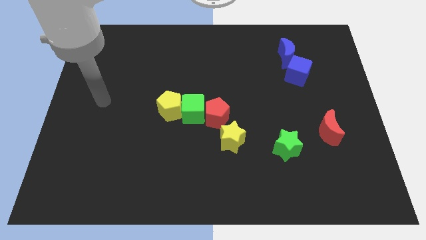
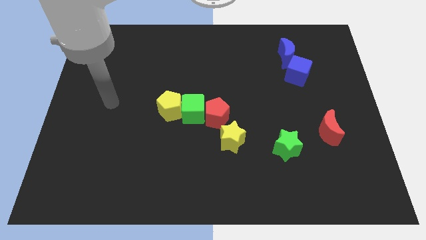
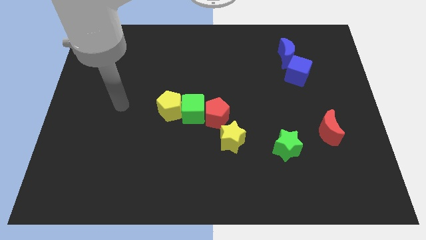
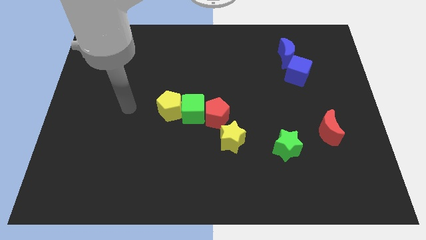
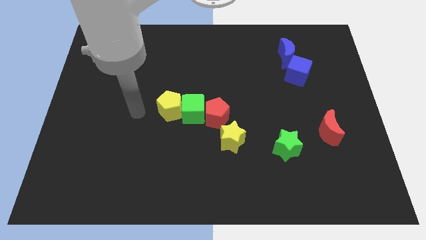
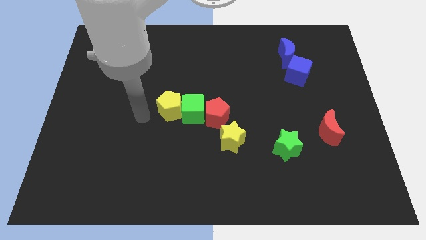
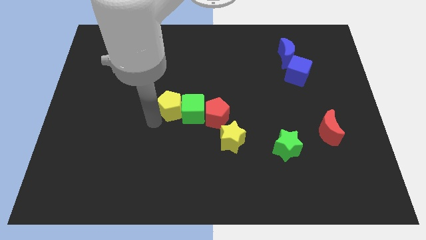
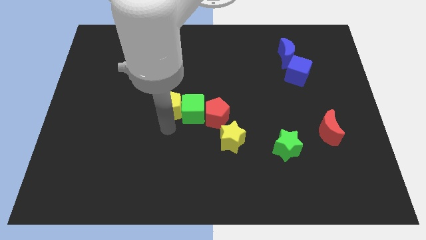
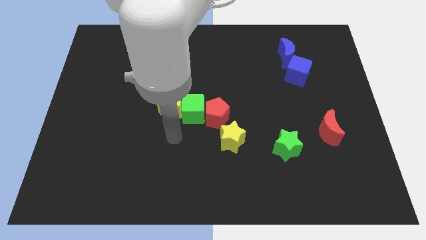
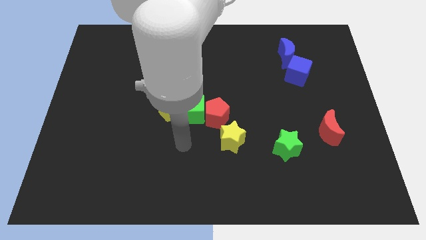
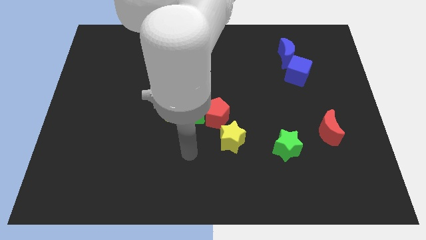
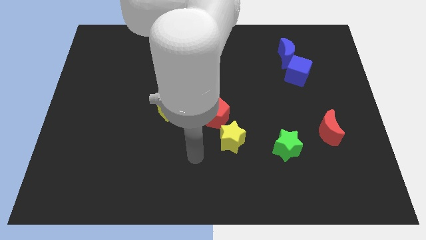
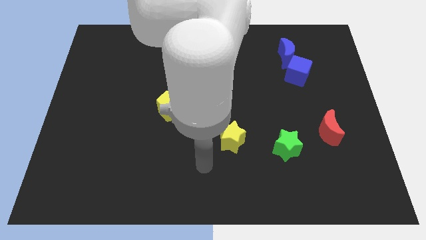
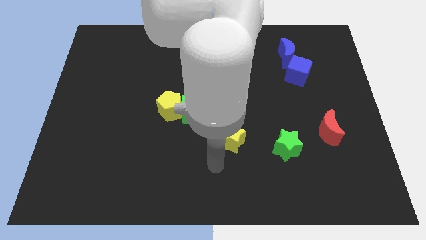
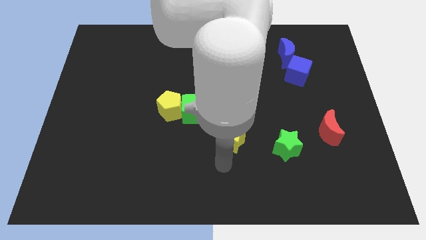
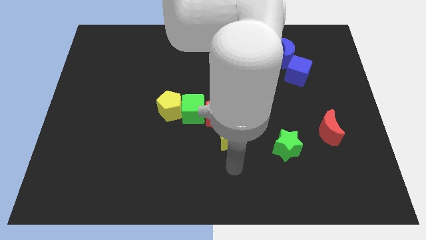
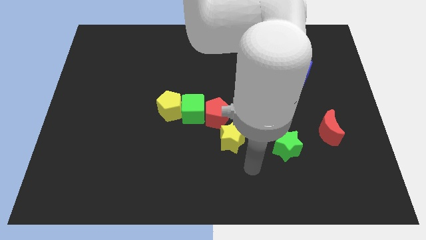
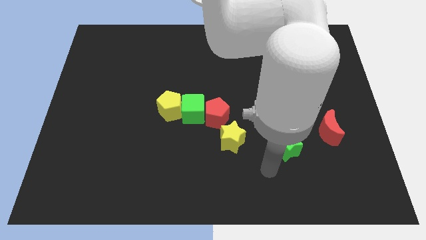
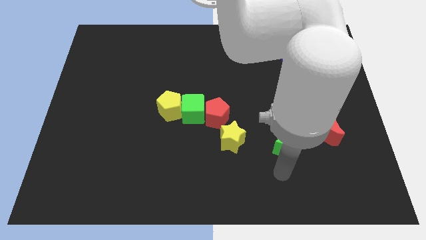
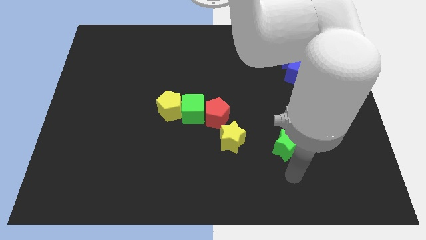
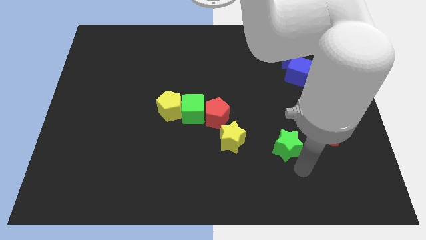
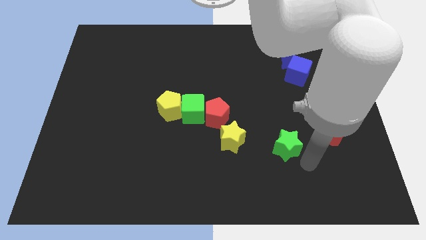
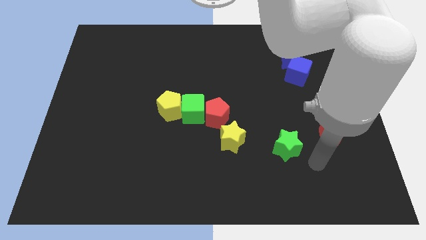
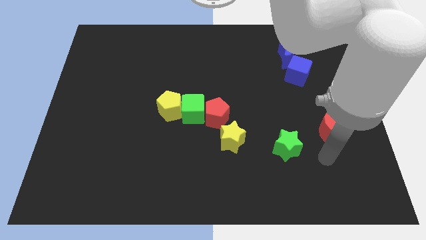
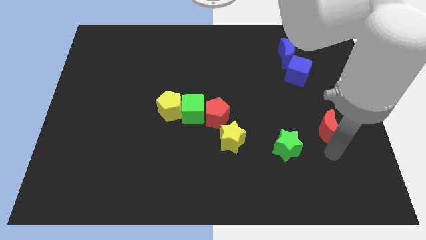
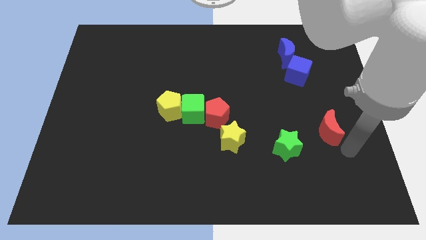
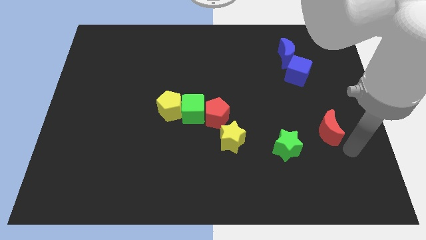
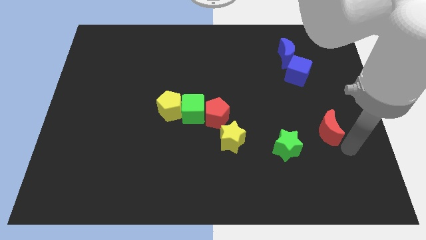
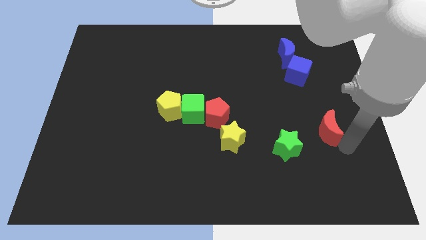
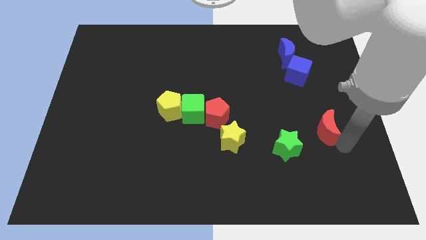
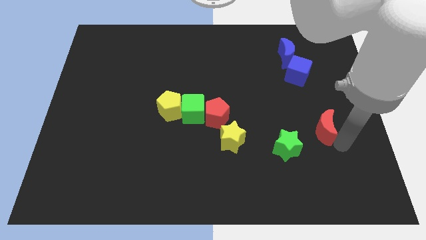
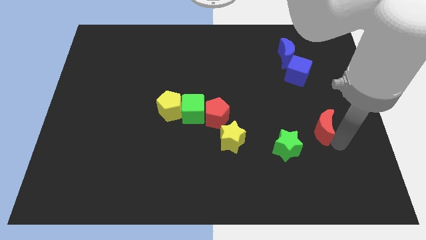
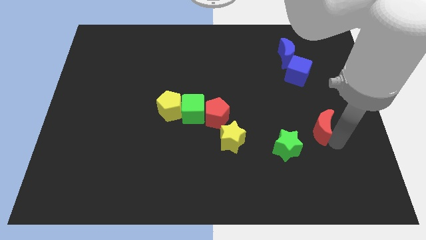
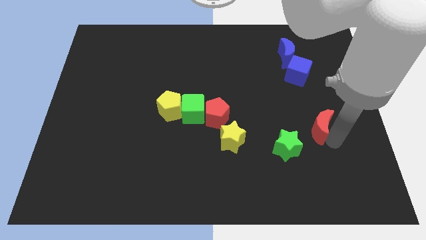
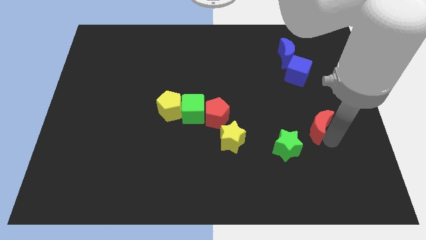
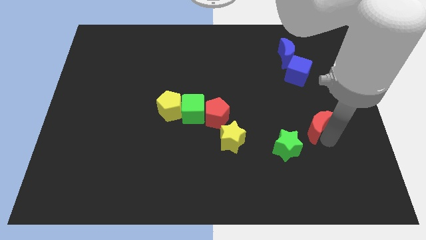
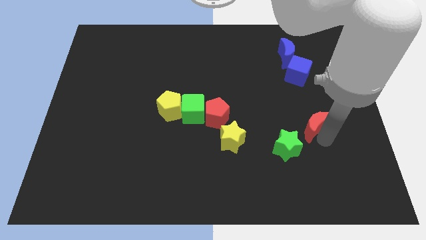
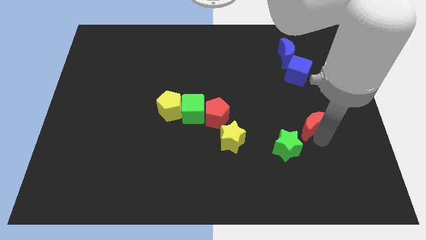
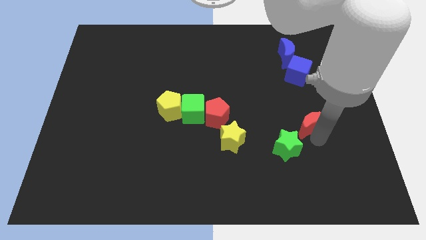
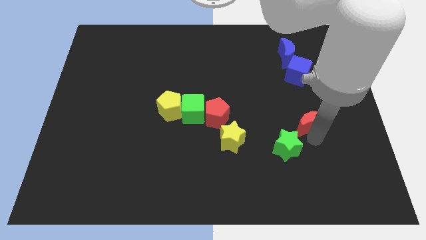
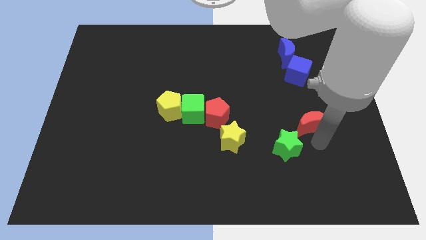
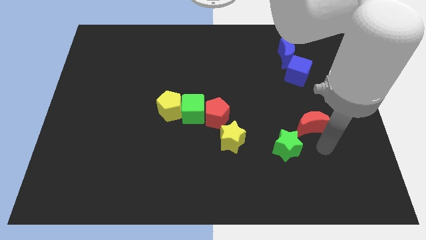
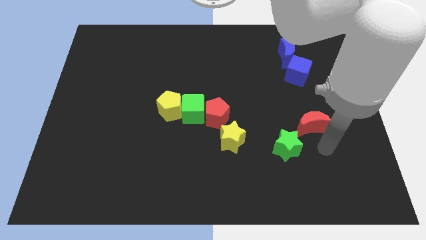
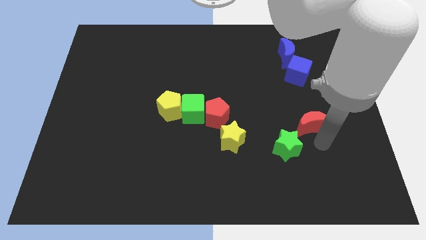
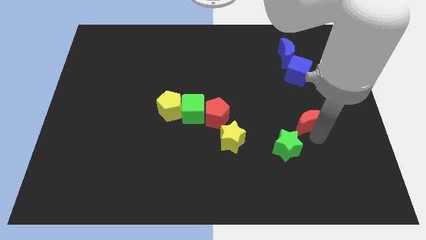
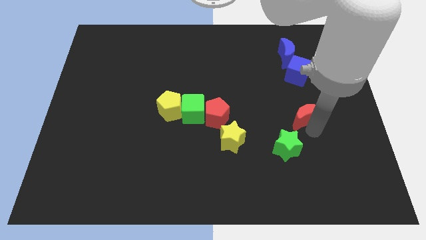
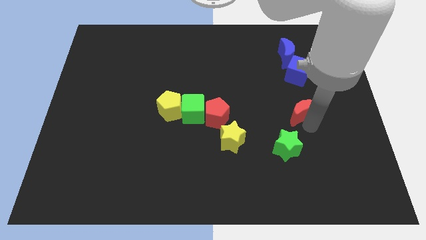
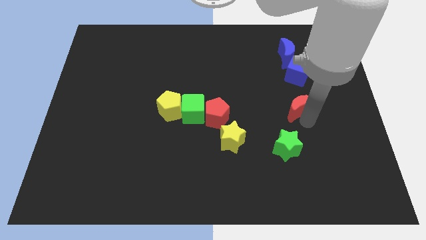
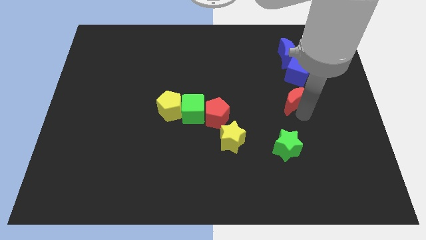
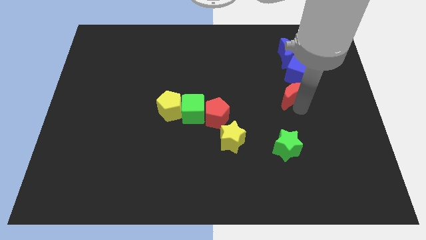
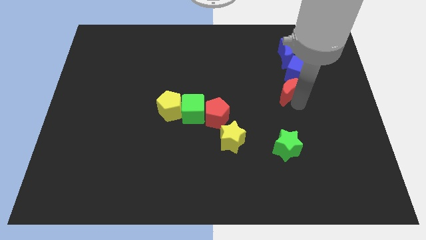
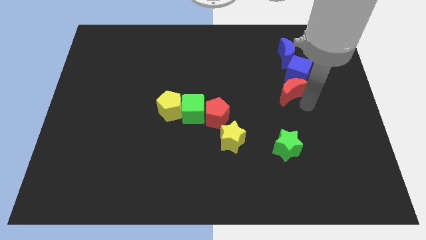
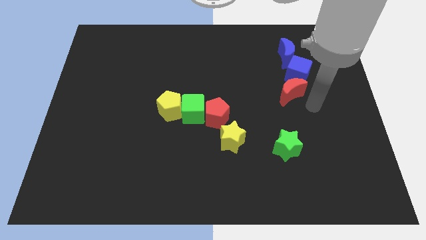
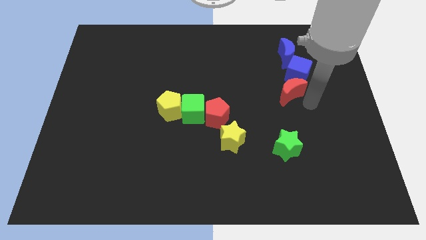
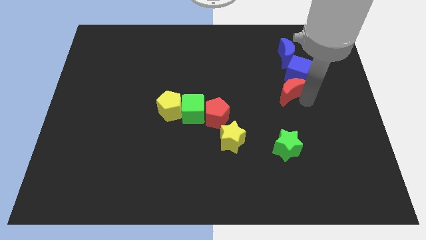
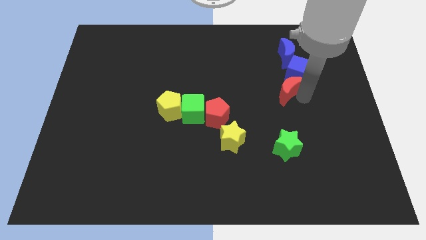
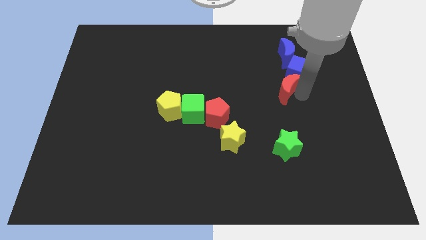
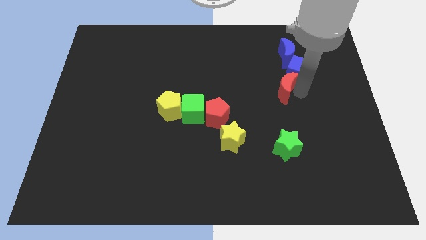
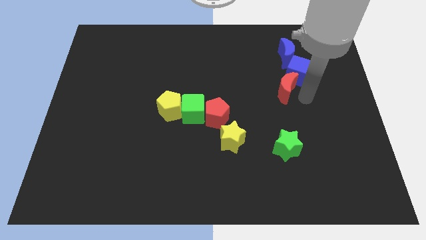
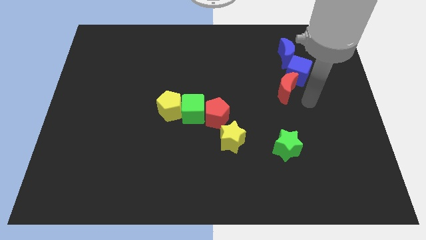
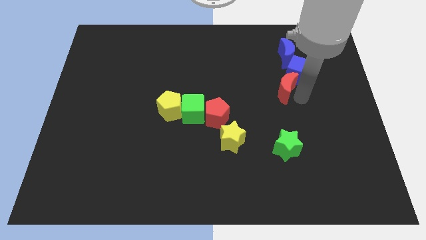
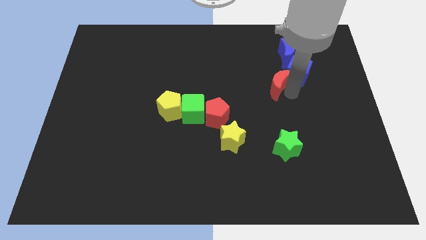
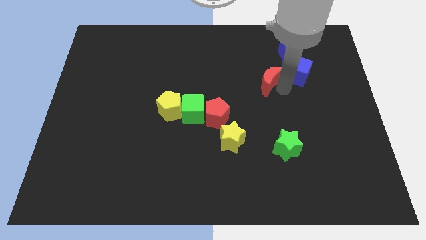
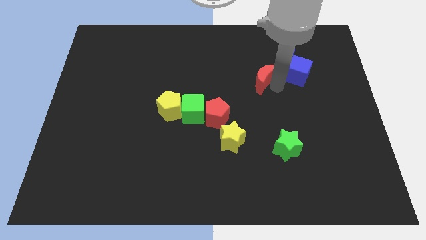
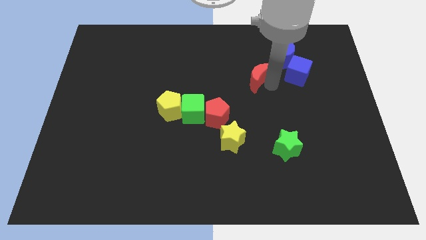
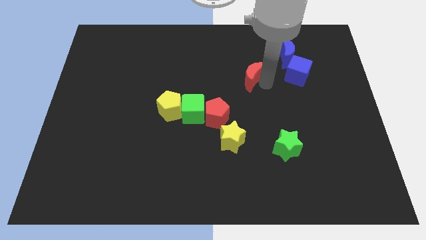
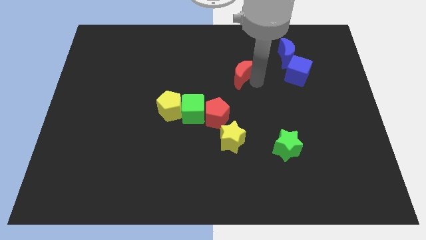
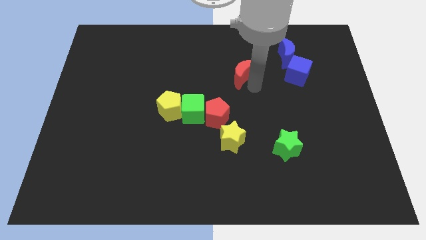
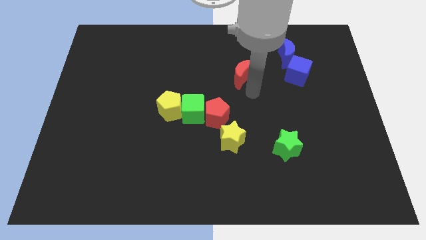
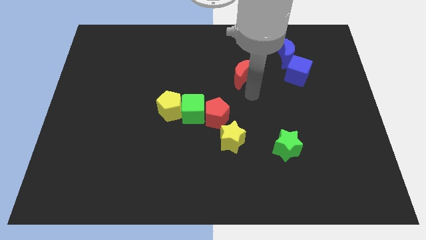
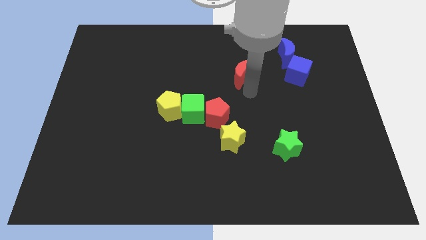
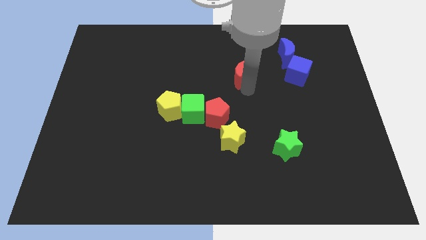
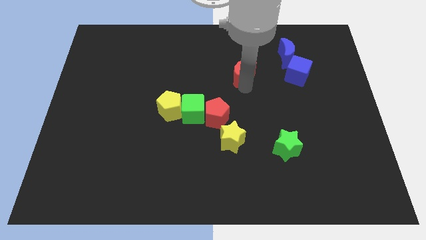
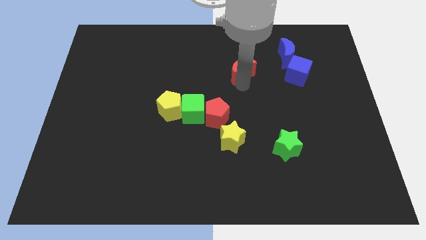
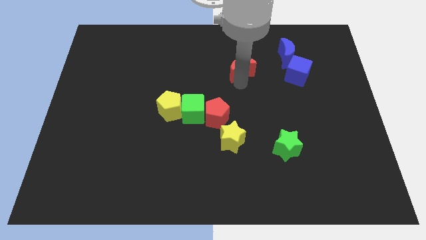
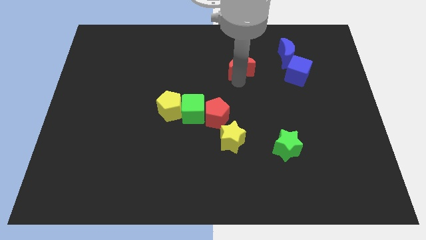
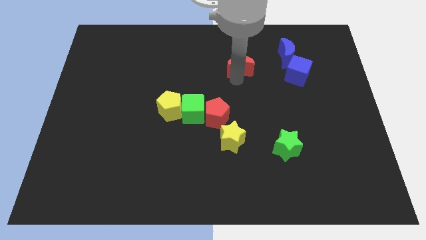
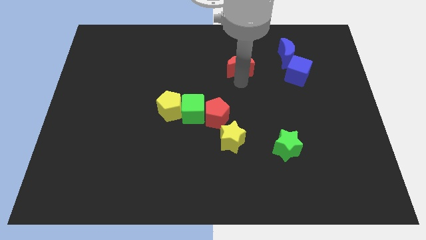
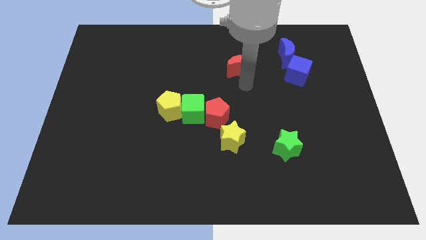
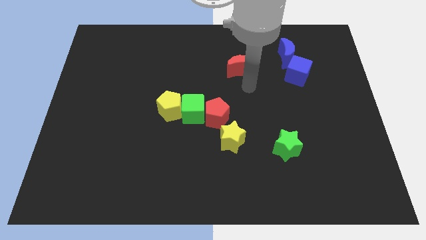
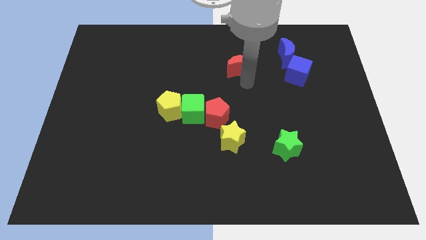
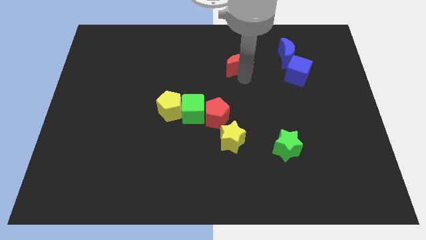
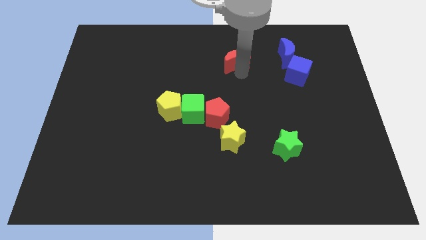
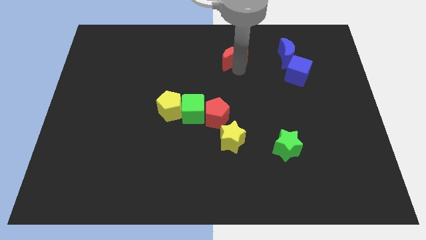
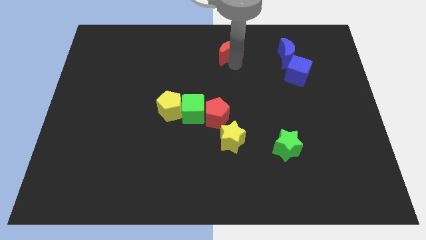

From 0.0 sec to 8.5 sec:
push the red moon to the top side

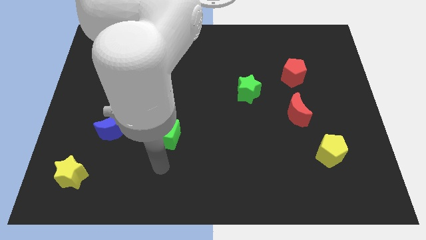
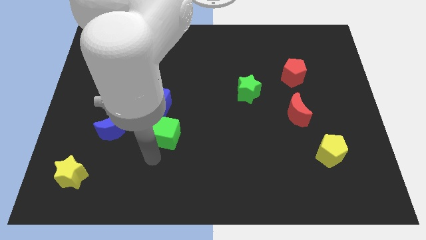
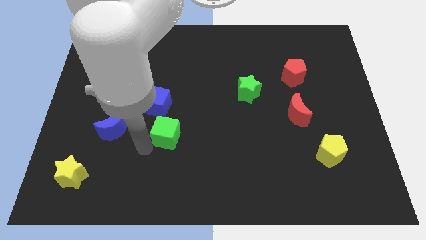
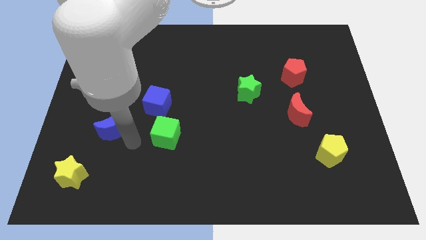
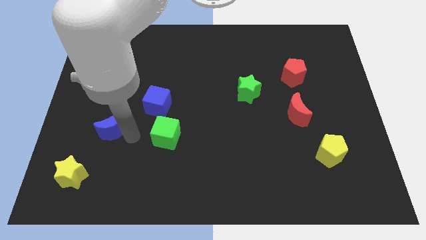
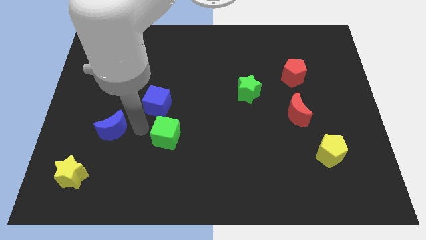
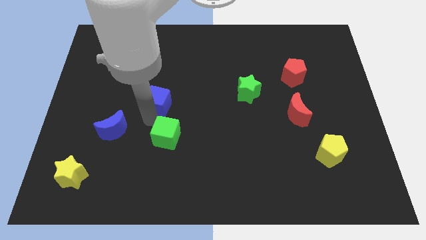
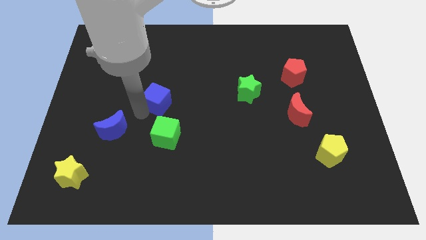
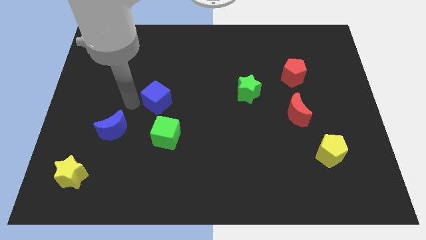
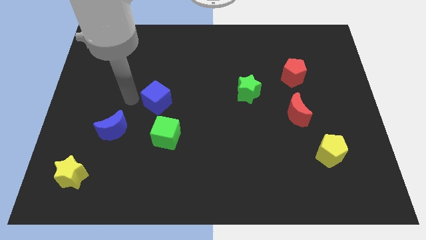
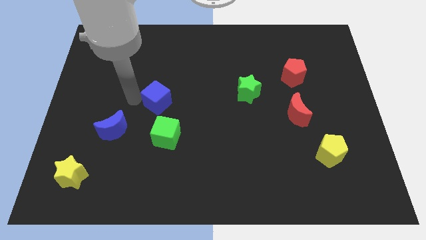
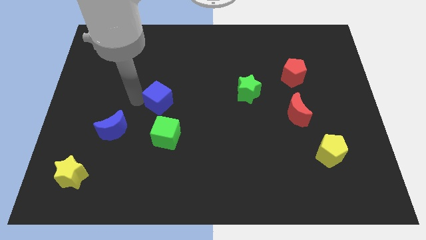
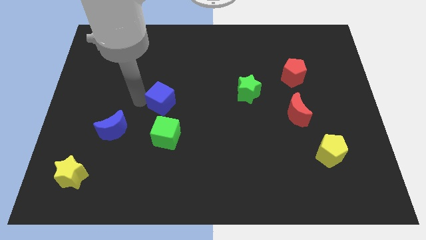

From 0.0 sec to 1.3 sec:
move the blue cube to the center
